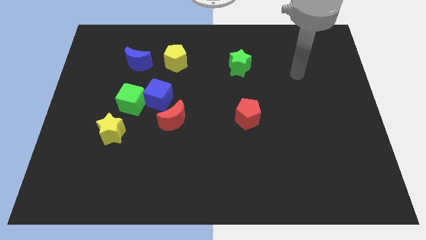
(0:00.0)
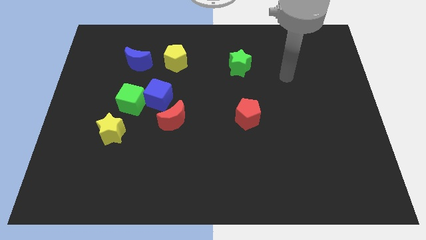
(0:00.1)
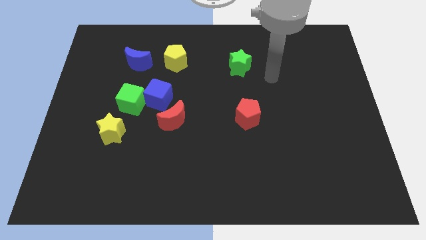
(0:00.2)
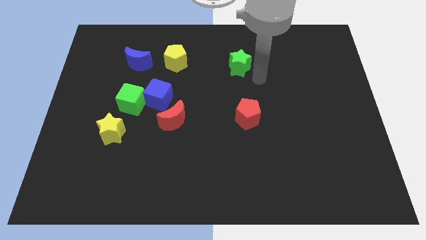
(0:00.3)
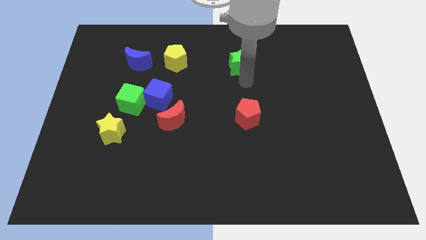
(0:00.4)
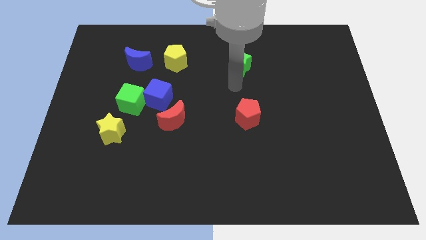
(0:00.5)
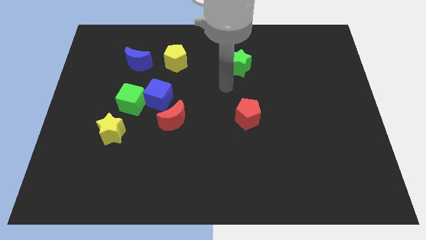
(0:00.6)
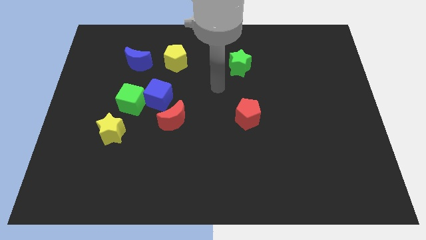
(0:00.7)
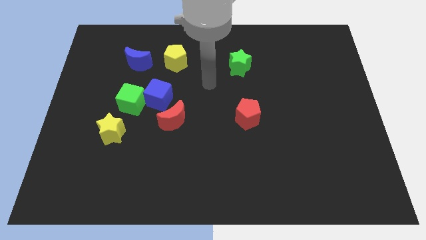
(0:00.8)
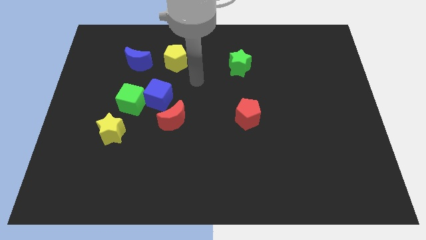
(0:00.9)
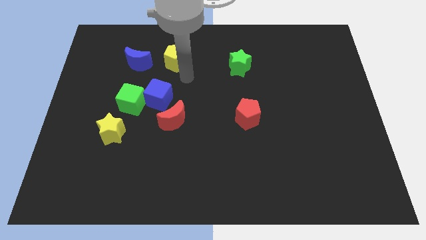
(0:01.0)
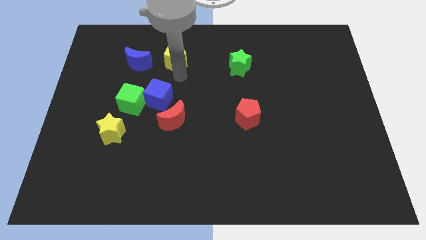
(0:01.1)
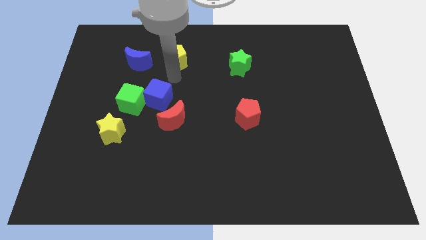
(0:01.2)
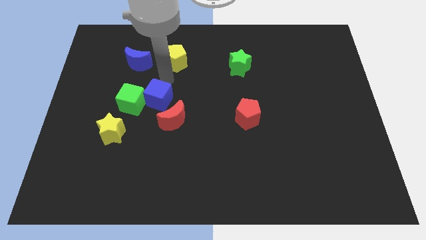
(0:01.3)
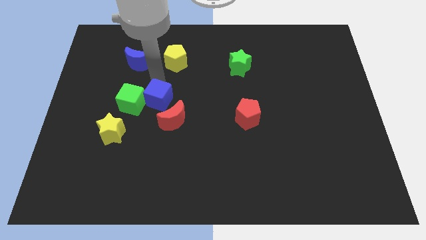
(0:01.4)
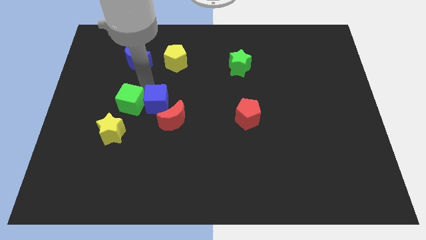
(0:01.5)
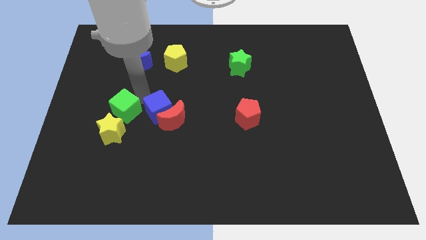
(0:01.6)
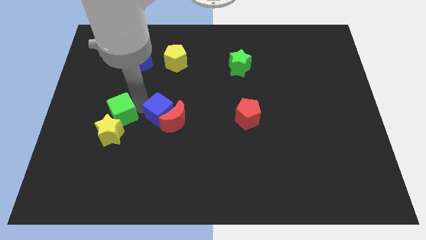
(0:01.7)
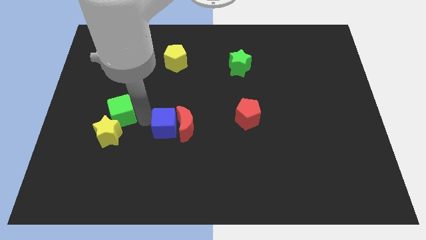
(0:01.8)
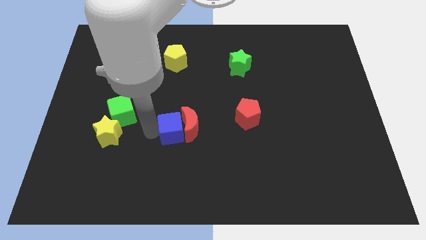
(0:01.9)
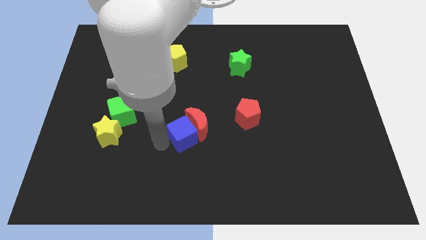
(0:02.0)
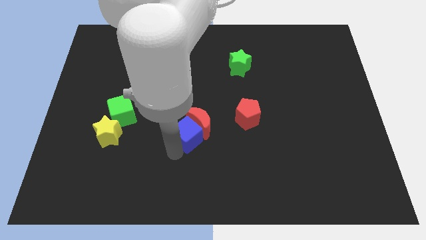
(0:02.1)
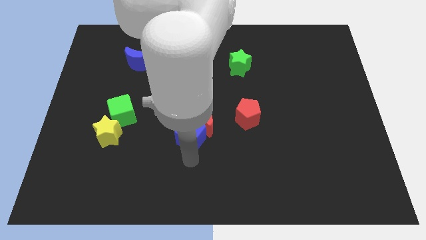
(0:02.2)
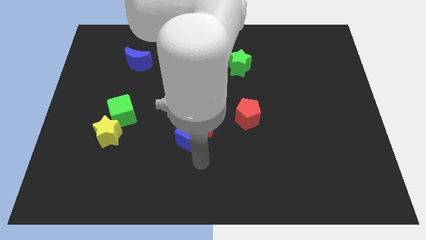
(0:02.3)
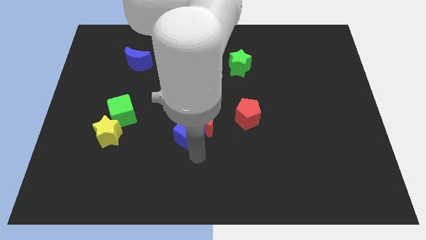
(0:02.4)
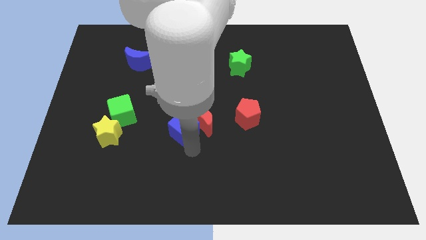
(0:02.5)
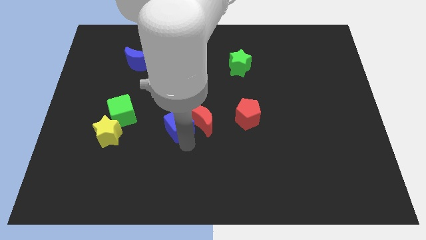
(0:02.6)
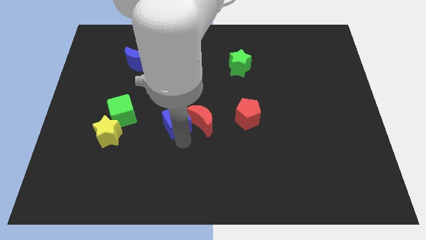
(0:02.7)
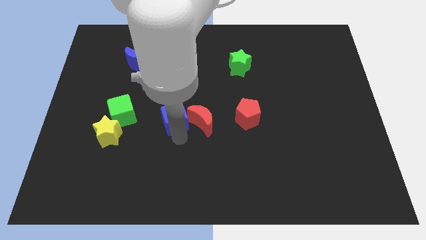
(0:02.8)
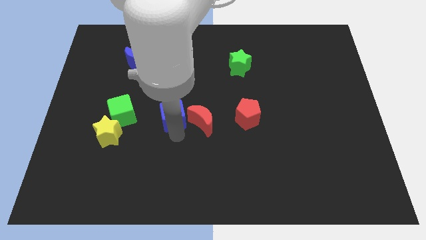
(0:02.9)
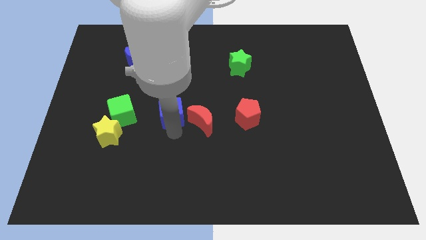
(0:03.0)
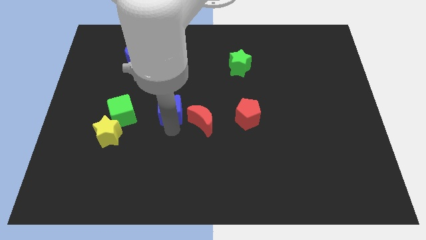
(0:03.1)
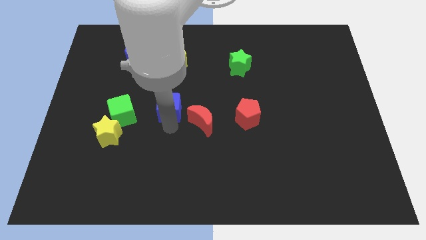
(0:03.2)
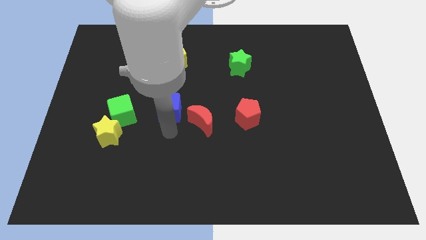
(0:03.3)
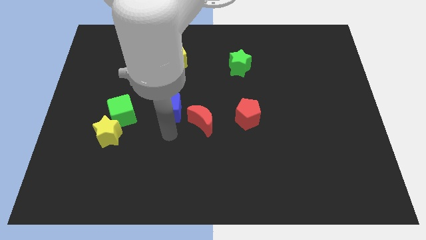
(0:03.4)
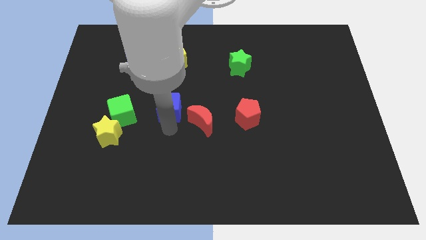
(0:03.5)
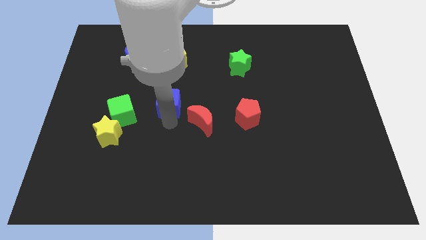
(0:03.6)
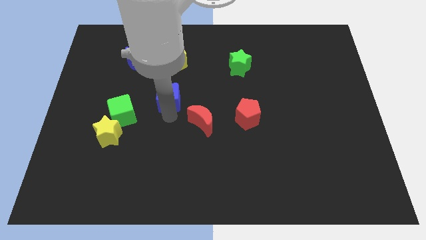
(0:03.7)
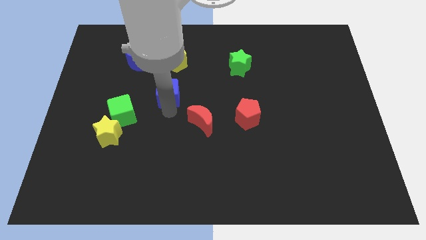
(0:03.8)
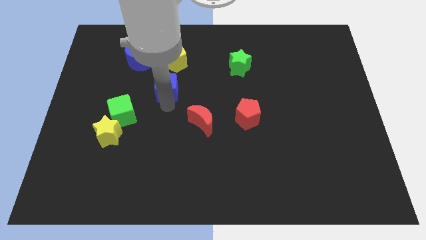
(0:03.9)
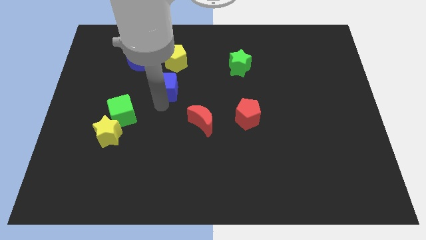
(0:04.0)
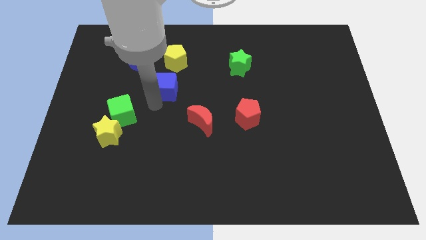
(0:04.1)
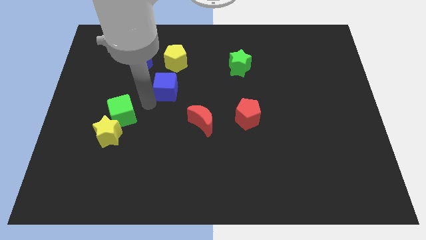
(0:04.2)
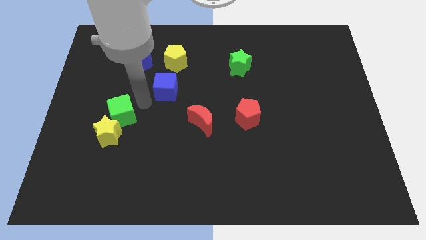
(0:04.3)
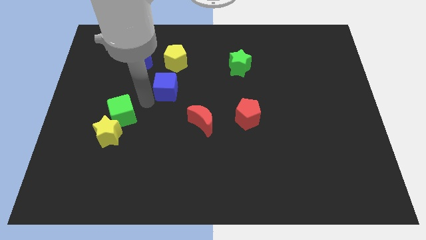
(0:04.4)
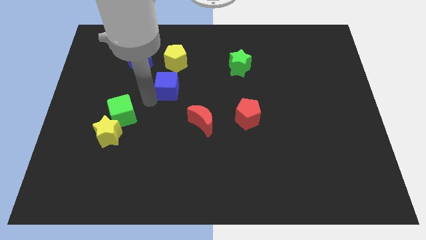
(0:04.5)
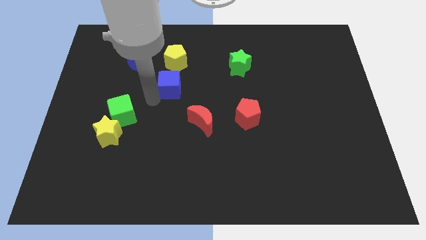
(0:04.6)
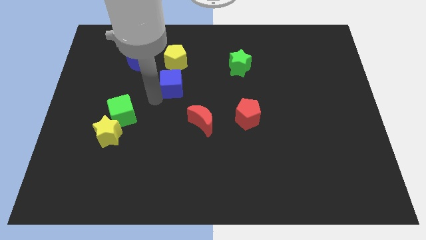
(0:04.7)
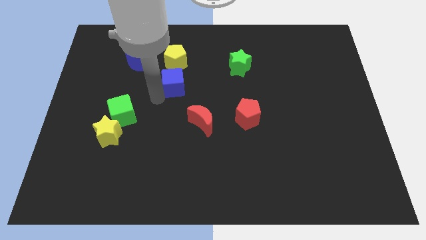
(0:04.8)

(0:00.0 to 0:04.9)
pull the blue cube apart from the green cube and red moon

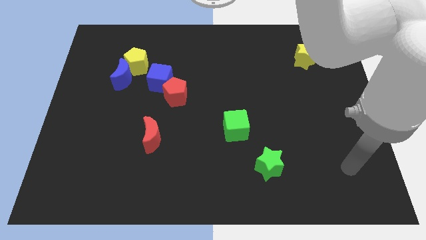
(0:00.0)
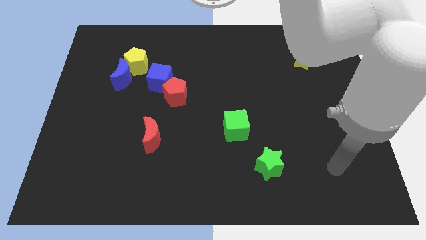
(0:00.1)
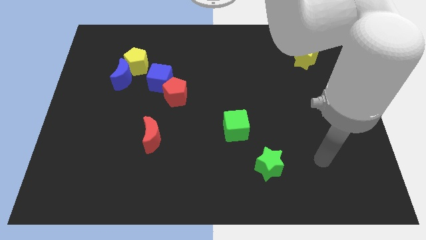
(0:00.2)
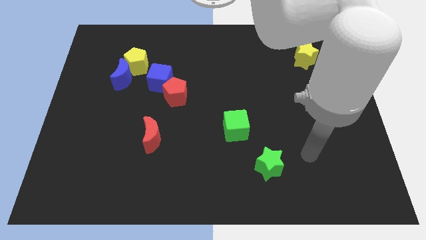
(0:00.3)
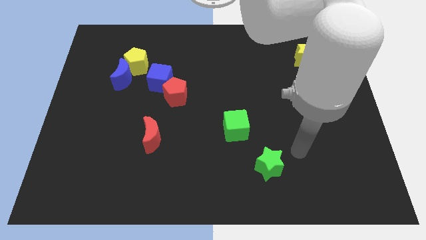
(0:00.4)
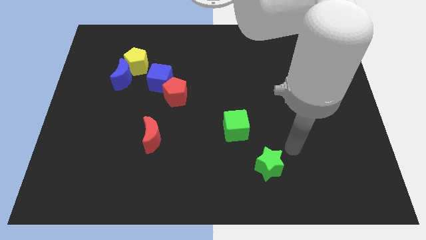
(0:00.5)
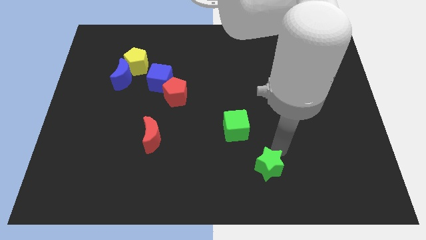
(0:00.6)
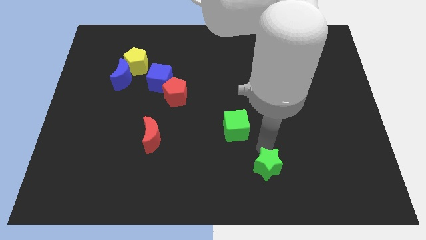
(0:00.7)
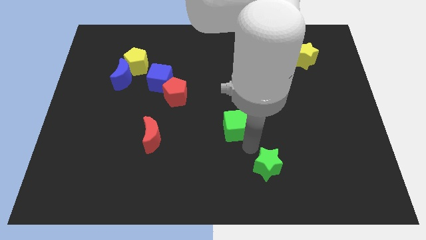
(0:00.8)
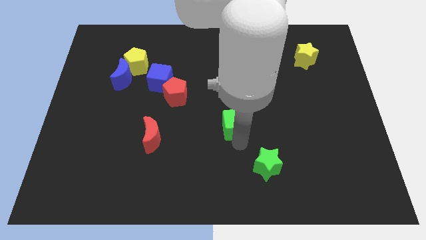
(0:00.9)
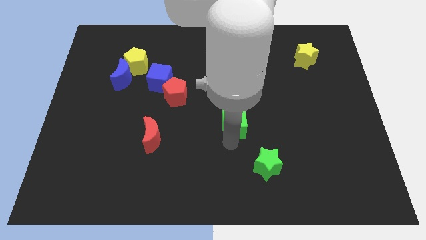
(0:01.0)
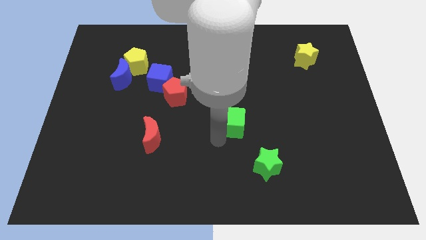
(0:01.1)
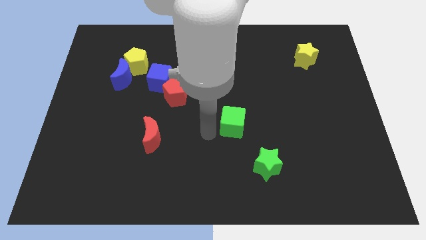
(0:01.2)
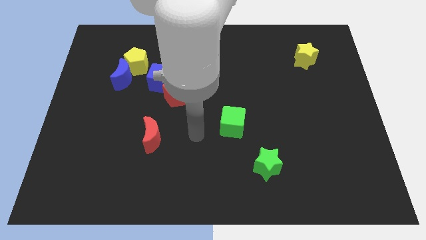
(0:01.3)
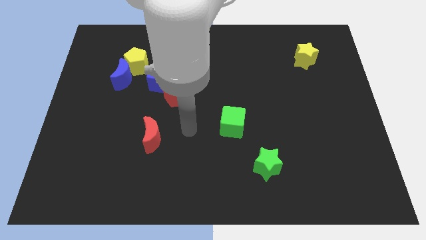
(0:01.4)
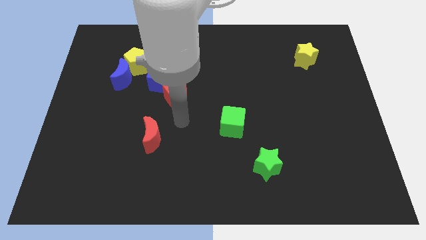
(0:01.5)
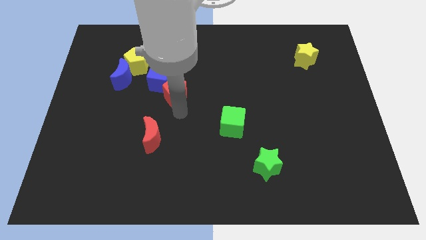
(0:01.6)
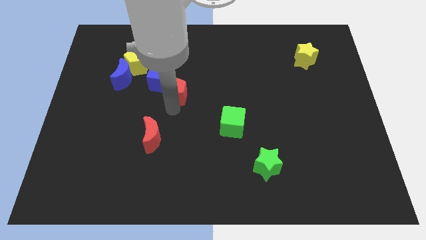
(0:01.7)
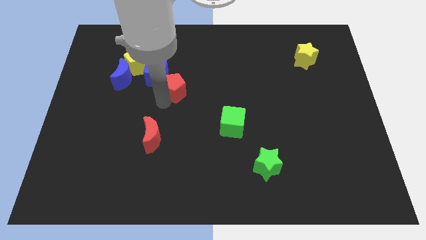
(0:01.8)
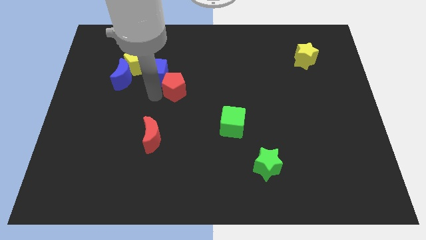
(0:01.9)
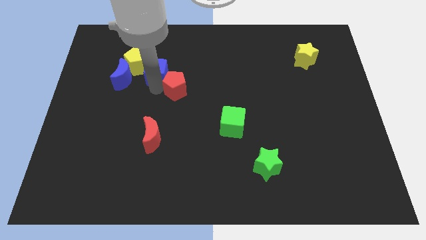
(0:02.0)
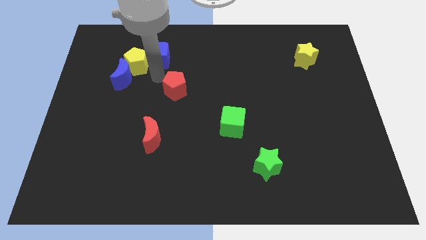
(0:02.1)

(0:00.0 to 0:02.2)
pull the red pentagon apart from the blue cube

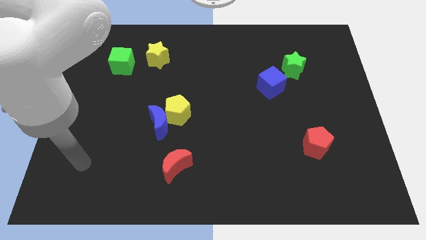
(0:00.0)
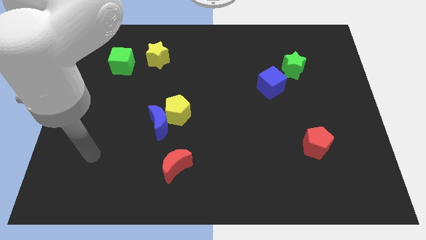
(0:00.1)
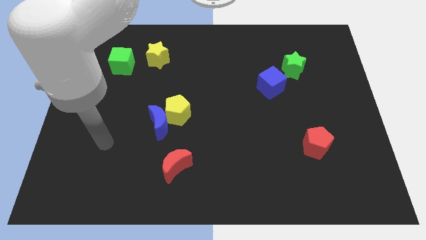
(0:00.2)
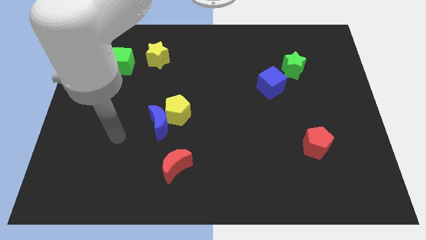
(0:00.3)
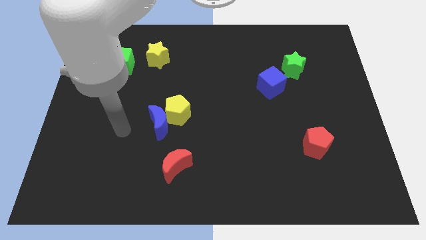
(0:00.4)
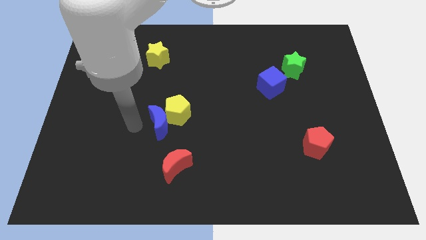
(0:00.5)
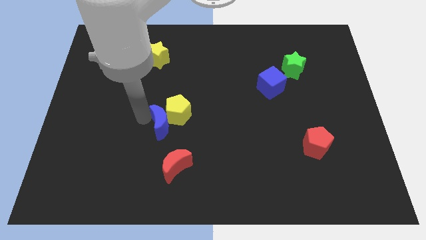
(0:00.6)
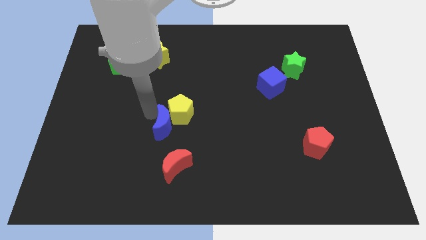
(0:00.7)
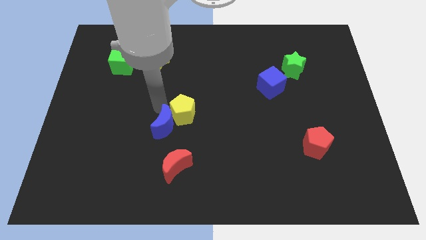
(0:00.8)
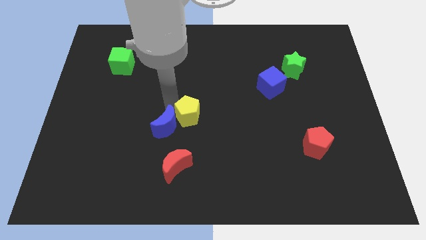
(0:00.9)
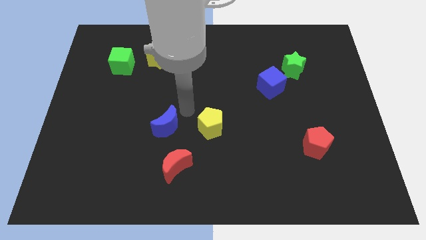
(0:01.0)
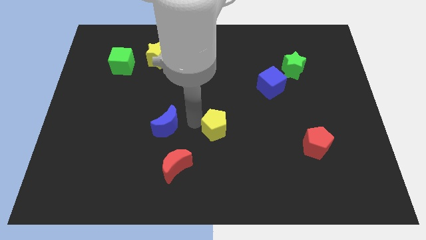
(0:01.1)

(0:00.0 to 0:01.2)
move the blue moon away from the yellow pentagon

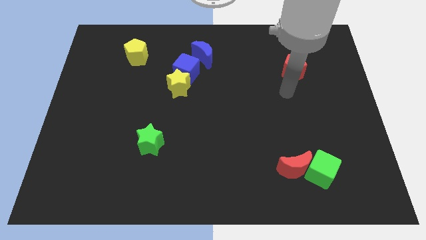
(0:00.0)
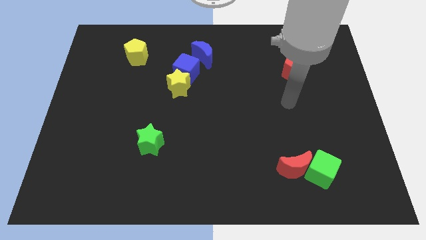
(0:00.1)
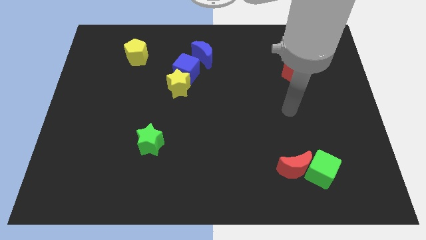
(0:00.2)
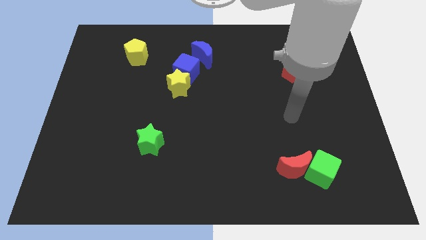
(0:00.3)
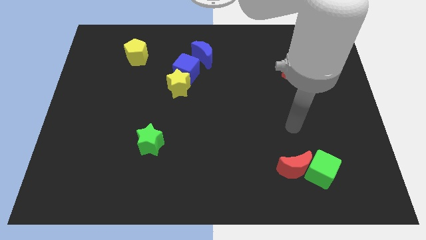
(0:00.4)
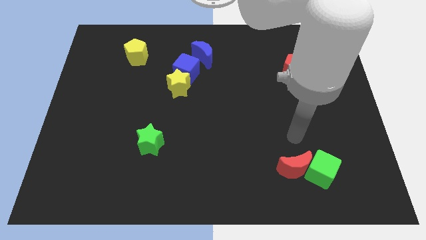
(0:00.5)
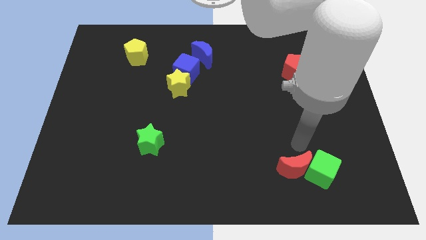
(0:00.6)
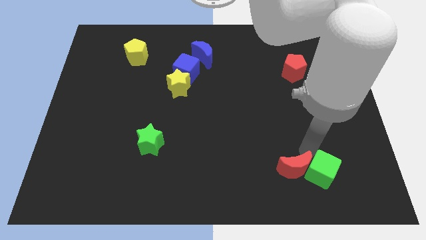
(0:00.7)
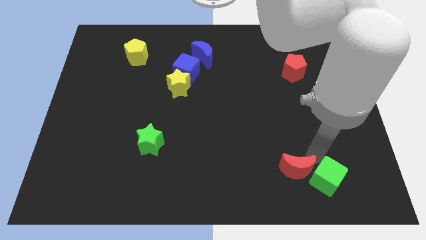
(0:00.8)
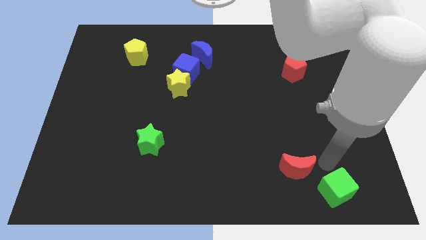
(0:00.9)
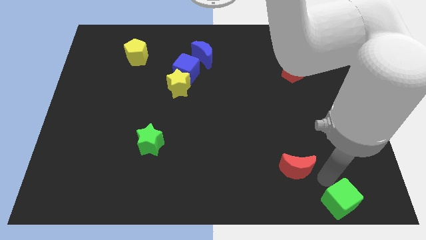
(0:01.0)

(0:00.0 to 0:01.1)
separate the red moon from the green cube
